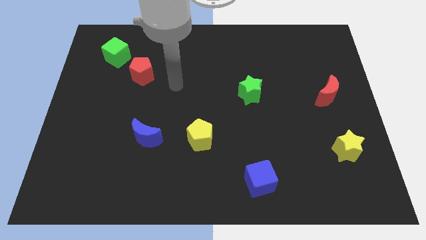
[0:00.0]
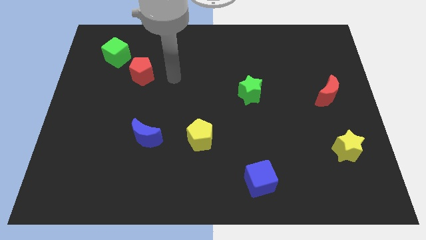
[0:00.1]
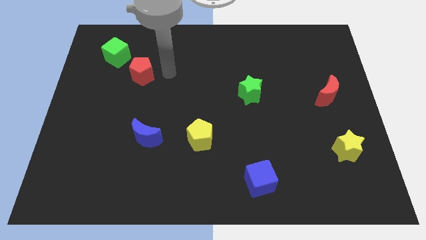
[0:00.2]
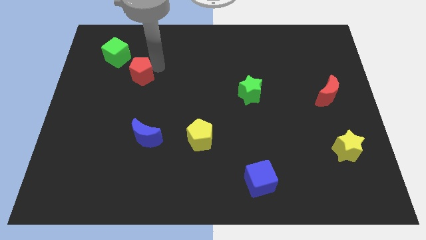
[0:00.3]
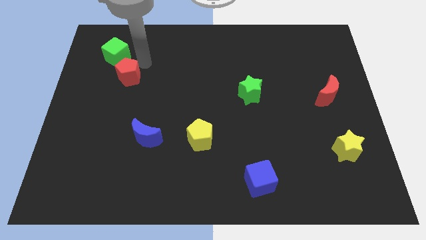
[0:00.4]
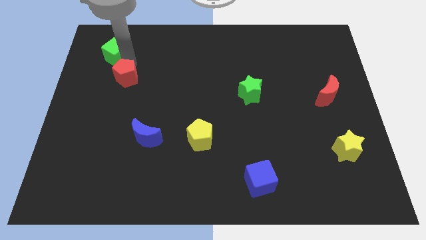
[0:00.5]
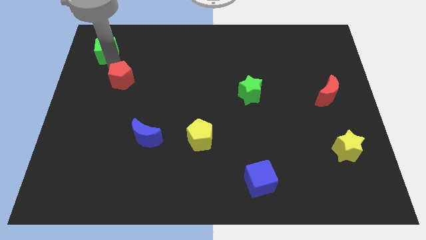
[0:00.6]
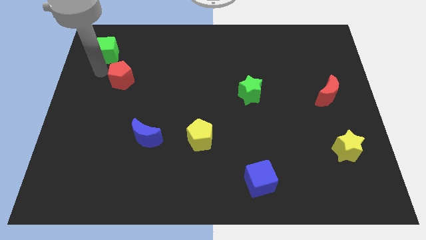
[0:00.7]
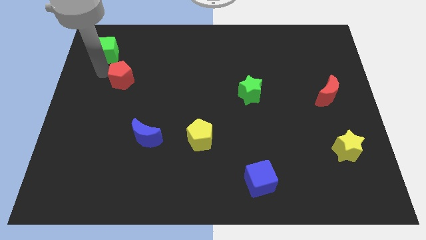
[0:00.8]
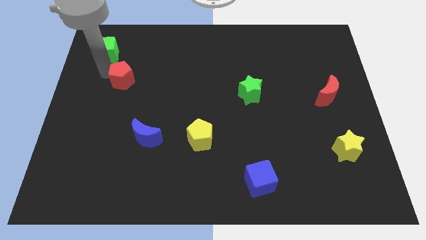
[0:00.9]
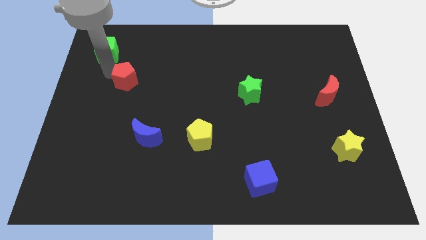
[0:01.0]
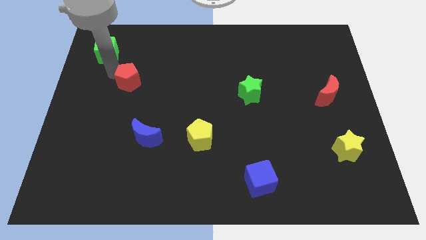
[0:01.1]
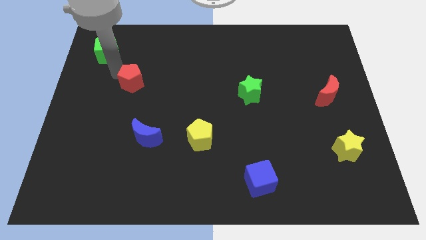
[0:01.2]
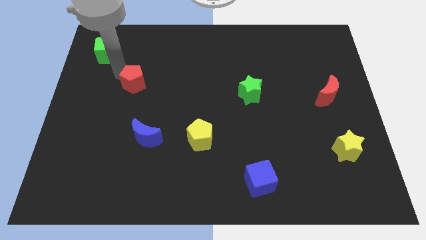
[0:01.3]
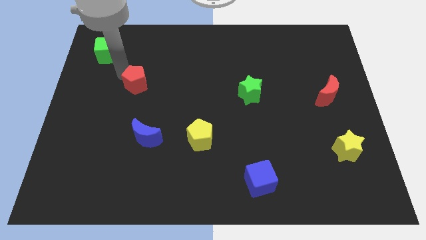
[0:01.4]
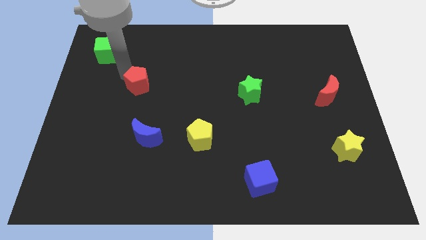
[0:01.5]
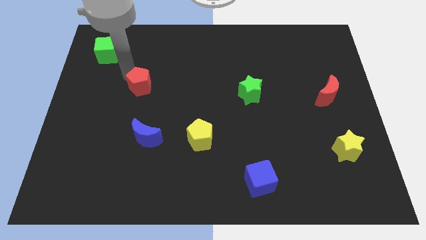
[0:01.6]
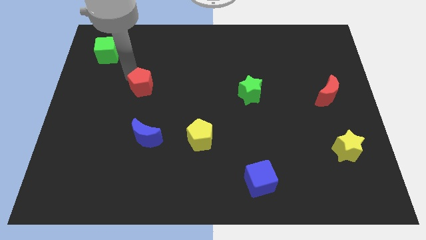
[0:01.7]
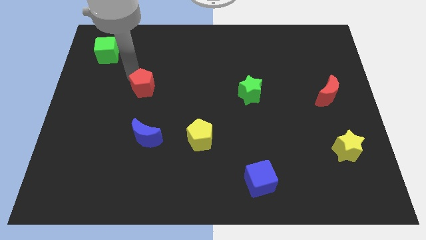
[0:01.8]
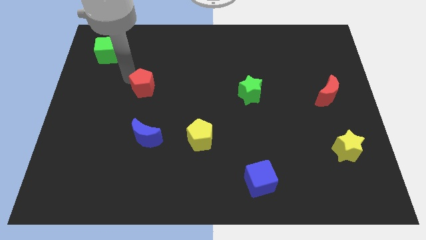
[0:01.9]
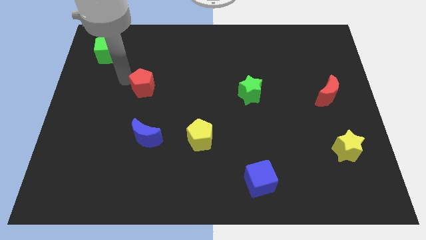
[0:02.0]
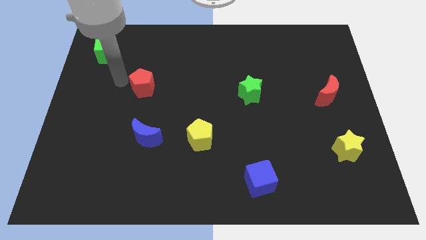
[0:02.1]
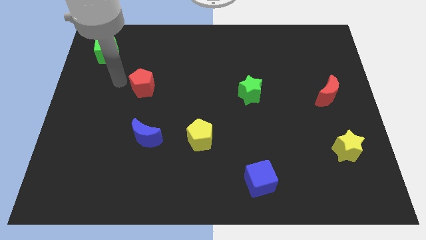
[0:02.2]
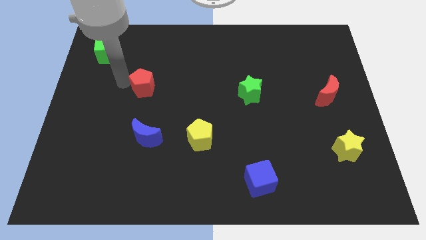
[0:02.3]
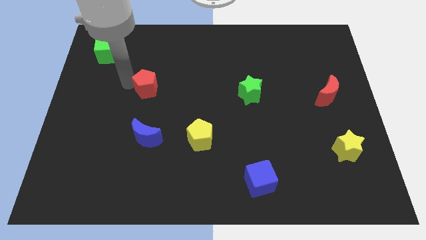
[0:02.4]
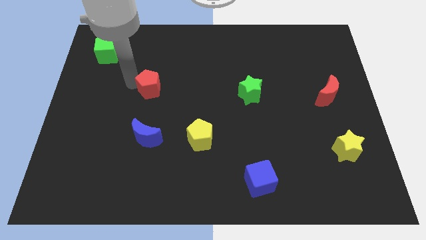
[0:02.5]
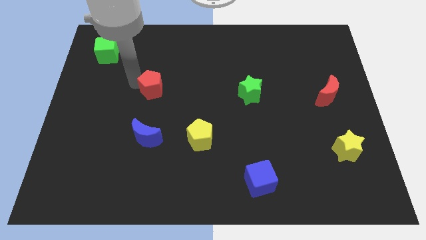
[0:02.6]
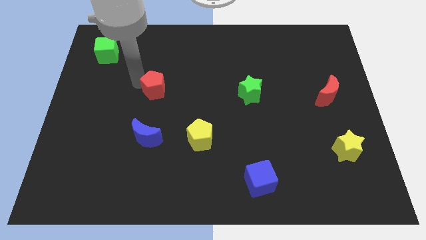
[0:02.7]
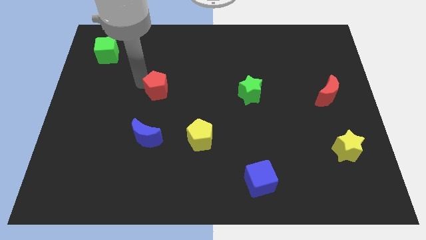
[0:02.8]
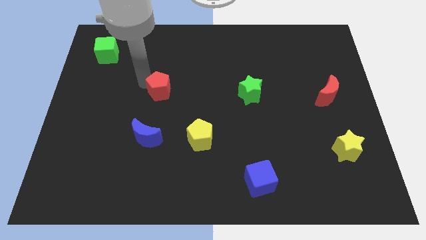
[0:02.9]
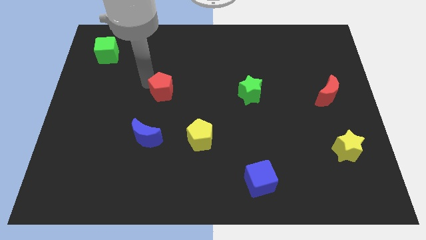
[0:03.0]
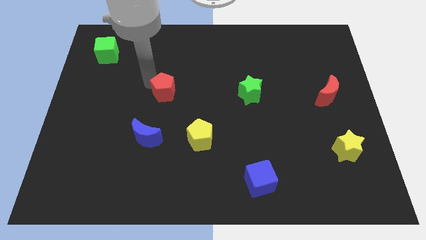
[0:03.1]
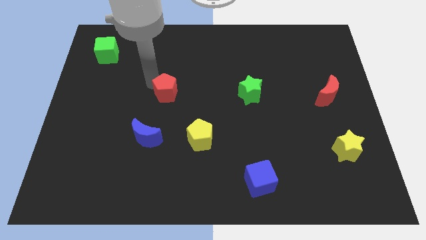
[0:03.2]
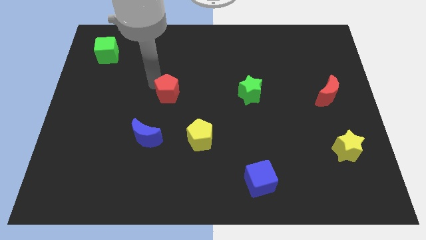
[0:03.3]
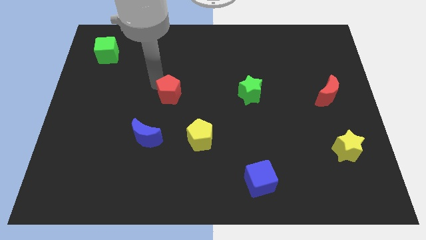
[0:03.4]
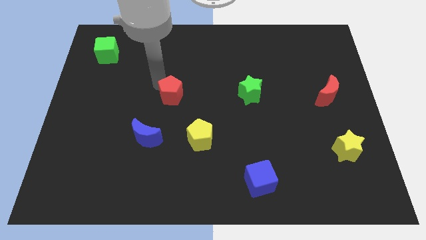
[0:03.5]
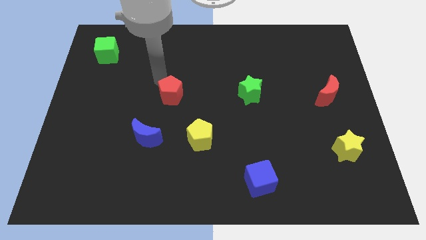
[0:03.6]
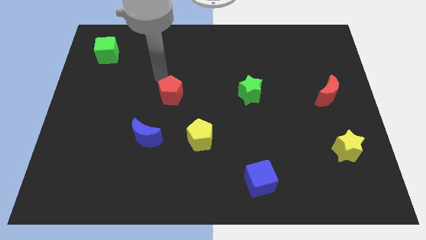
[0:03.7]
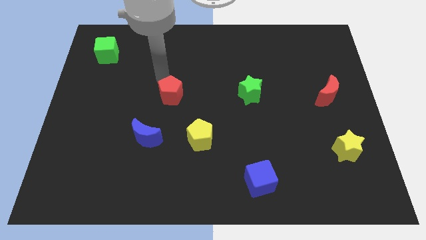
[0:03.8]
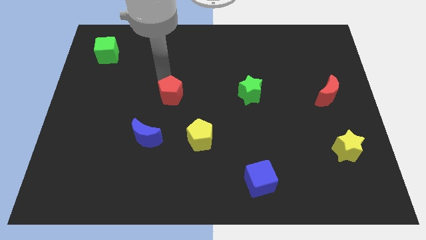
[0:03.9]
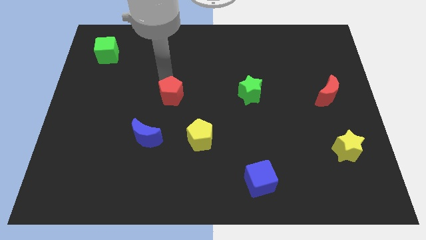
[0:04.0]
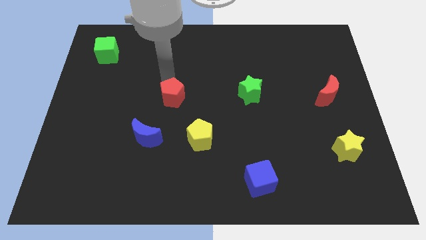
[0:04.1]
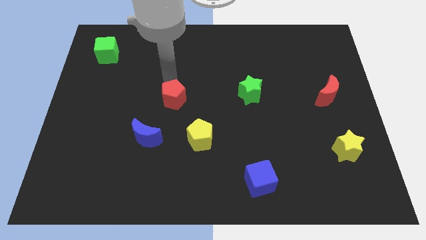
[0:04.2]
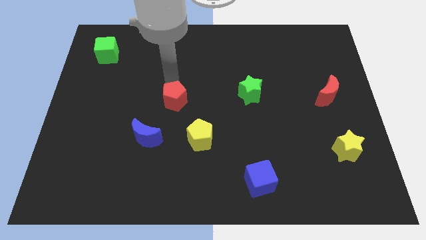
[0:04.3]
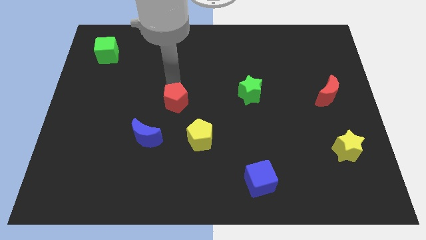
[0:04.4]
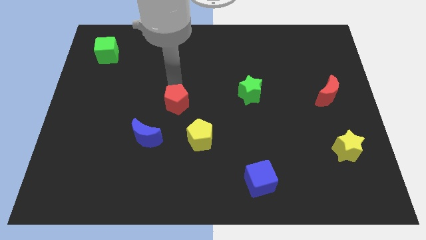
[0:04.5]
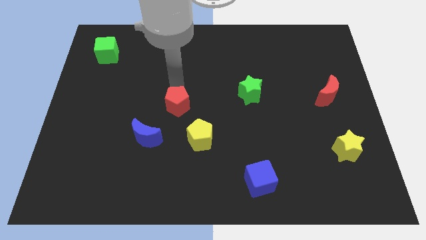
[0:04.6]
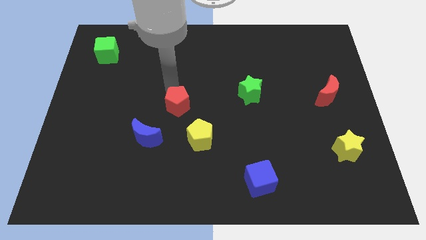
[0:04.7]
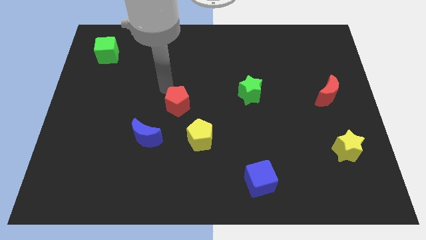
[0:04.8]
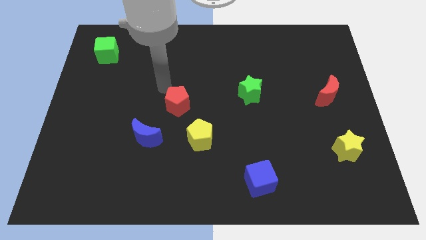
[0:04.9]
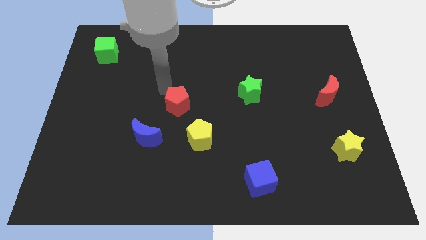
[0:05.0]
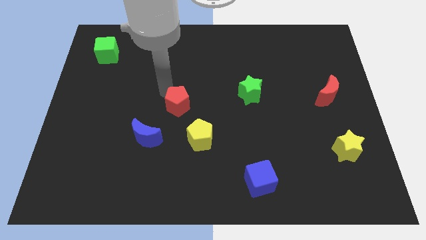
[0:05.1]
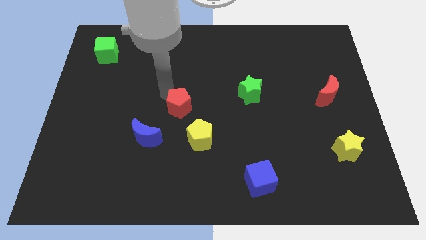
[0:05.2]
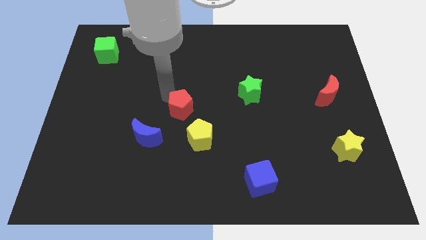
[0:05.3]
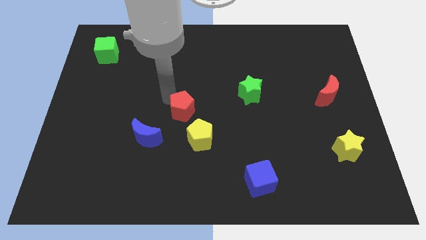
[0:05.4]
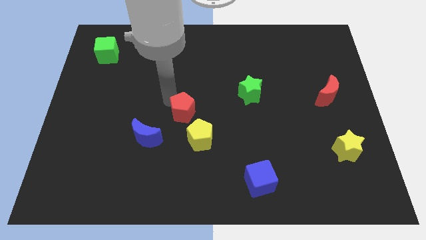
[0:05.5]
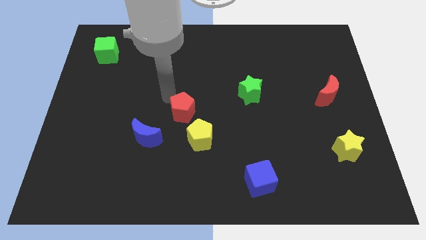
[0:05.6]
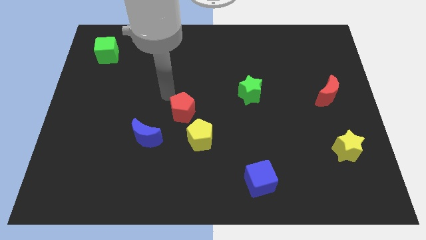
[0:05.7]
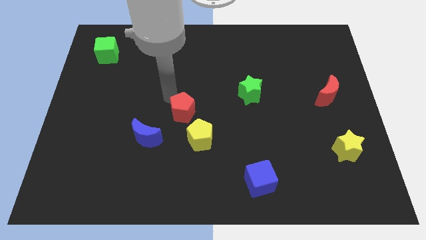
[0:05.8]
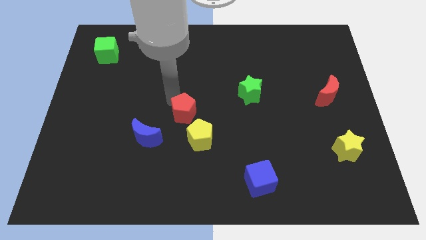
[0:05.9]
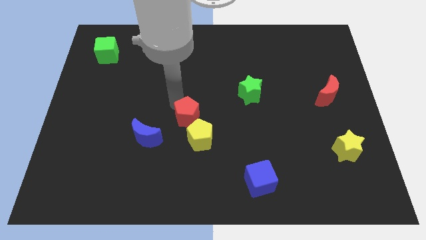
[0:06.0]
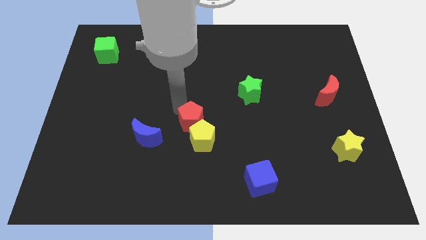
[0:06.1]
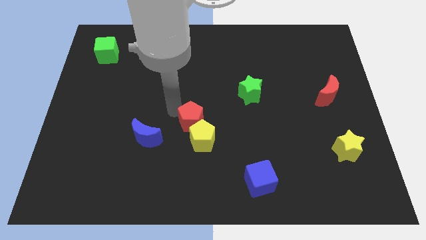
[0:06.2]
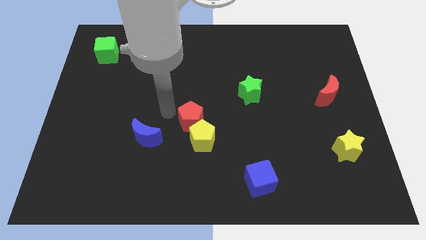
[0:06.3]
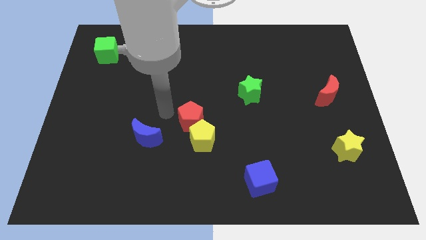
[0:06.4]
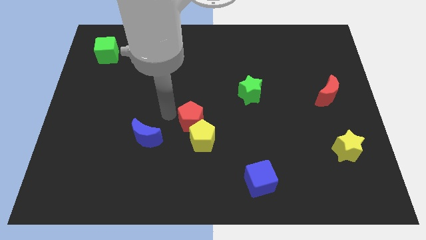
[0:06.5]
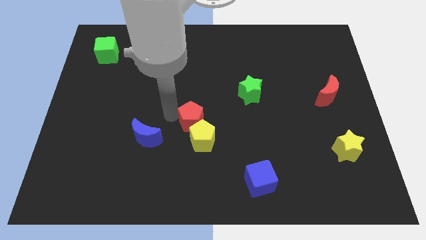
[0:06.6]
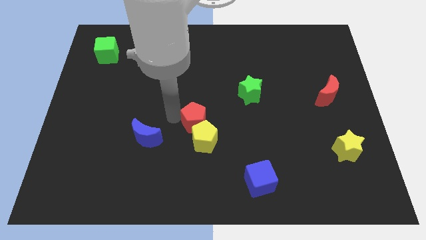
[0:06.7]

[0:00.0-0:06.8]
push the red pentagon down and right diagonally

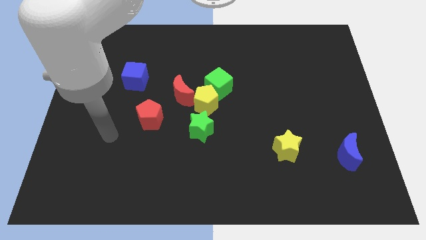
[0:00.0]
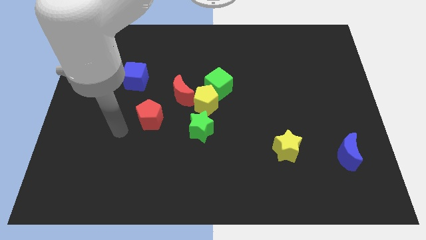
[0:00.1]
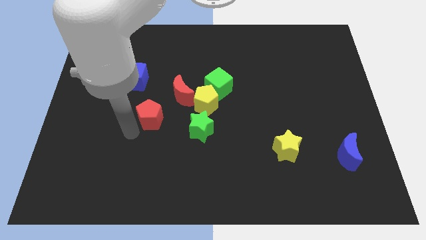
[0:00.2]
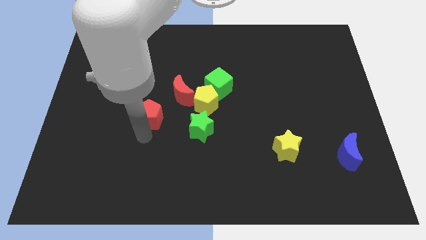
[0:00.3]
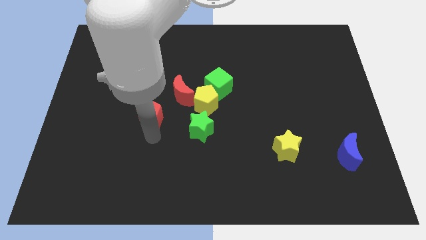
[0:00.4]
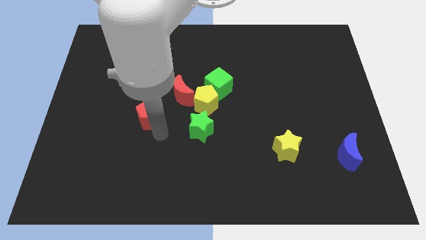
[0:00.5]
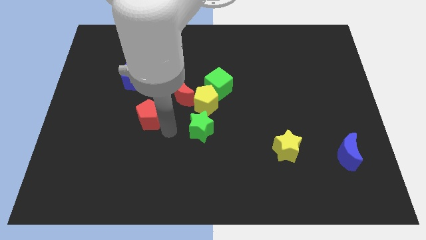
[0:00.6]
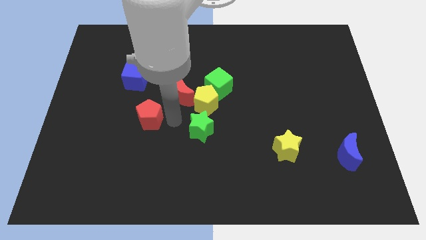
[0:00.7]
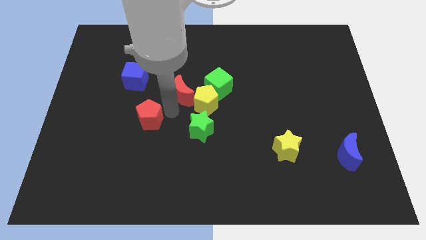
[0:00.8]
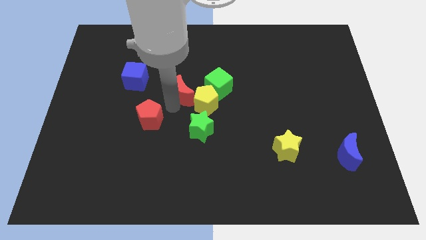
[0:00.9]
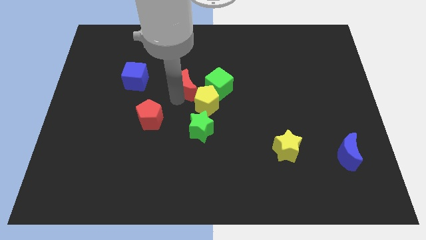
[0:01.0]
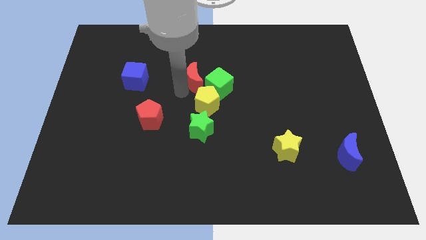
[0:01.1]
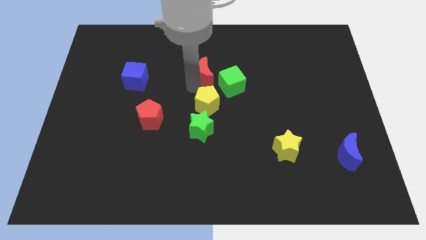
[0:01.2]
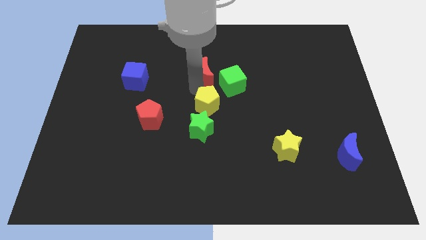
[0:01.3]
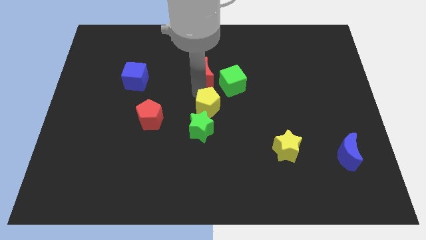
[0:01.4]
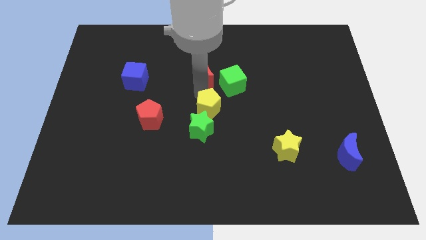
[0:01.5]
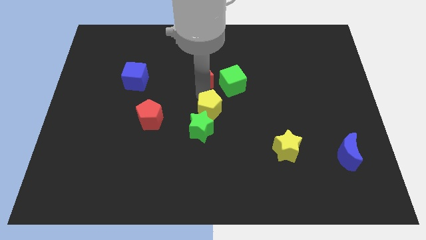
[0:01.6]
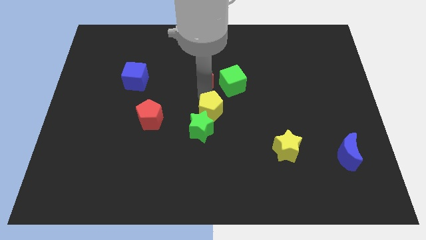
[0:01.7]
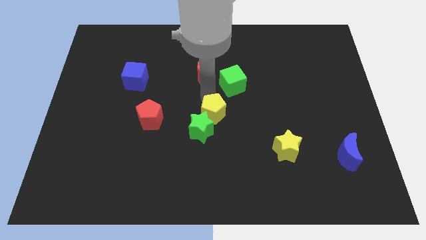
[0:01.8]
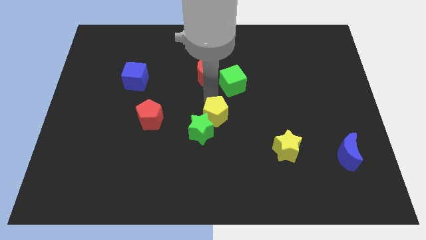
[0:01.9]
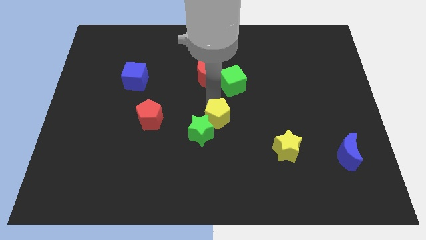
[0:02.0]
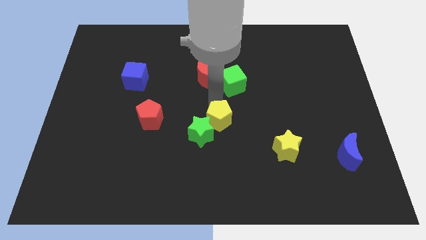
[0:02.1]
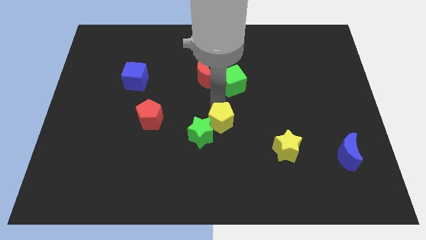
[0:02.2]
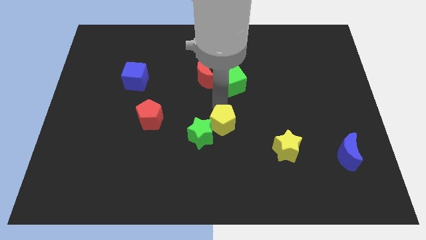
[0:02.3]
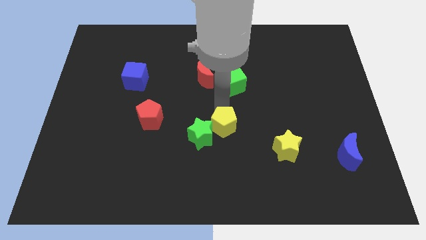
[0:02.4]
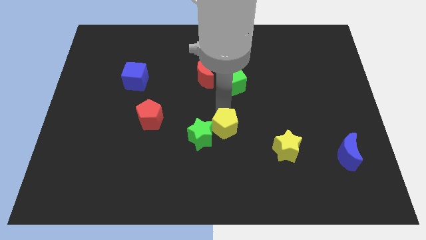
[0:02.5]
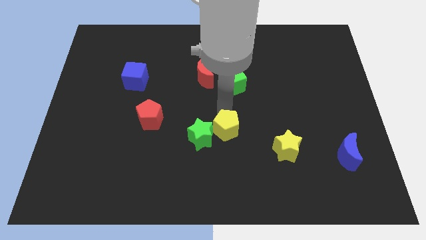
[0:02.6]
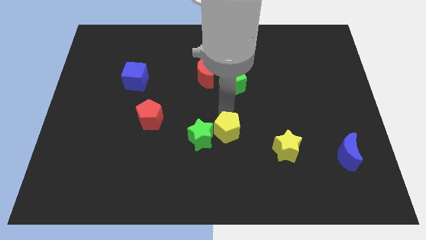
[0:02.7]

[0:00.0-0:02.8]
slightly move the yellow pentagon downwards
